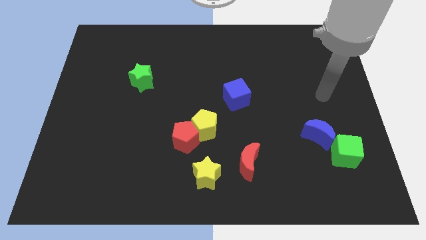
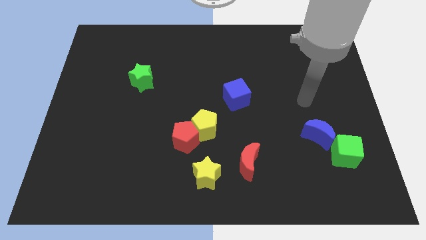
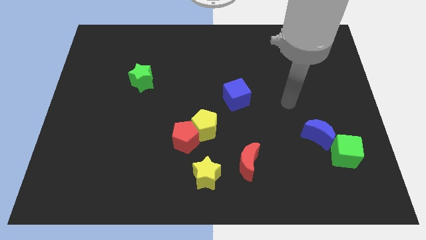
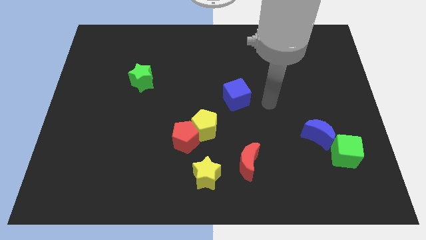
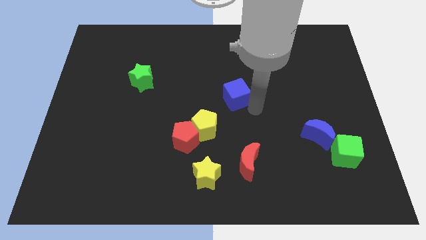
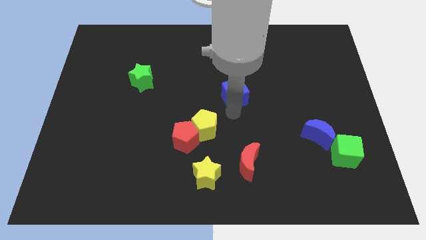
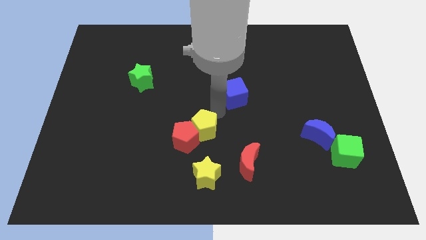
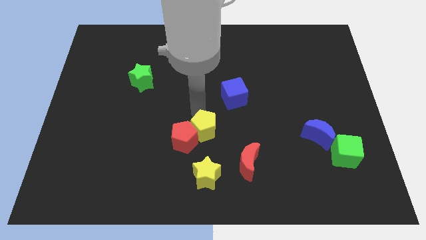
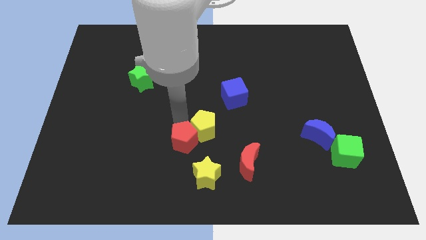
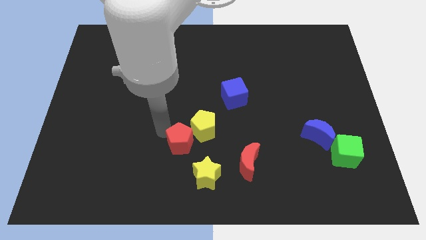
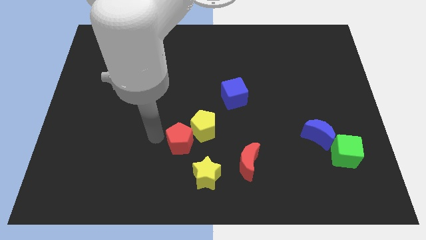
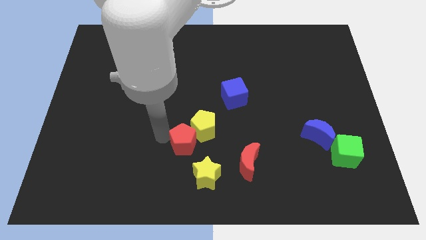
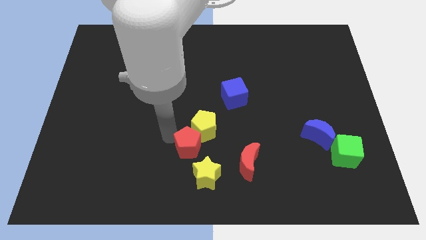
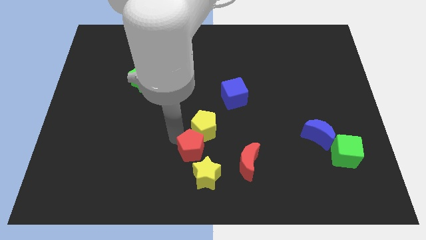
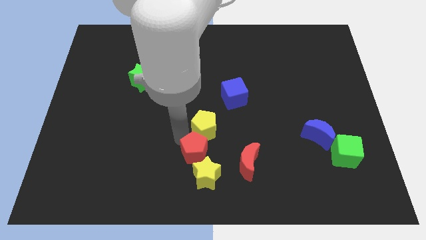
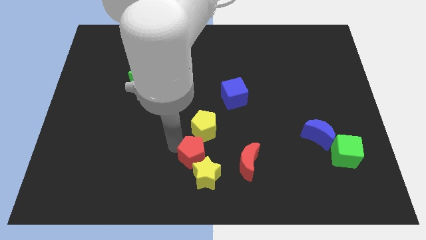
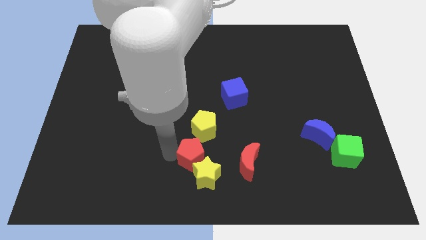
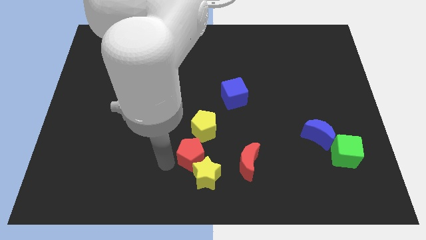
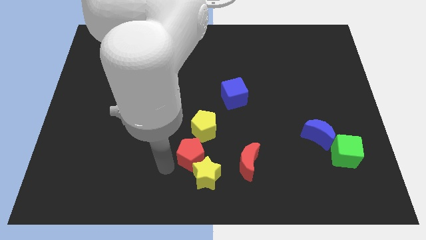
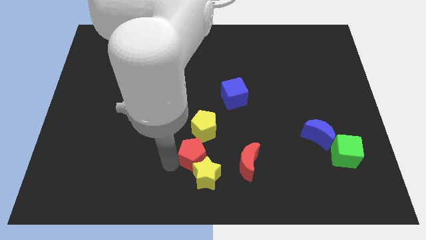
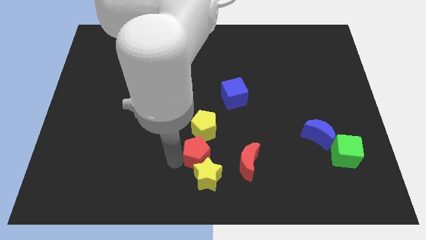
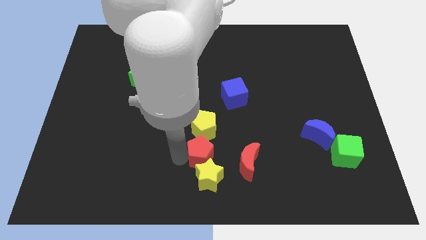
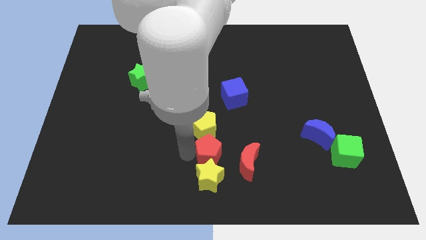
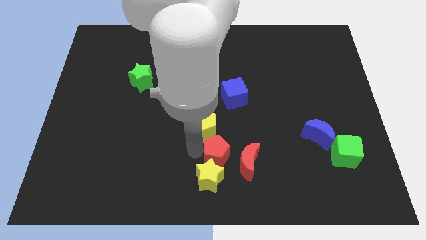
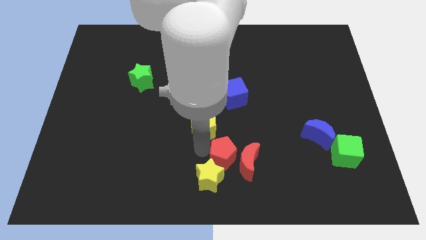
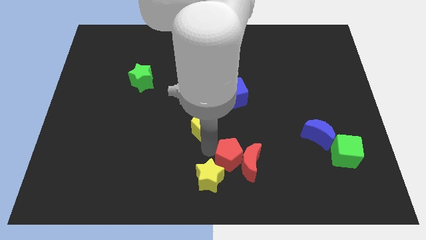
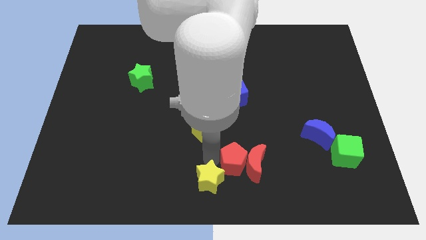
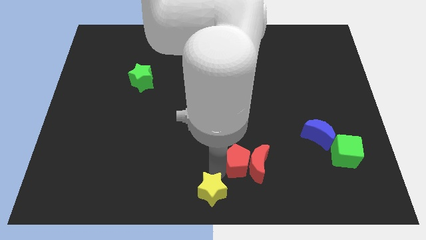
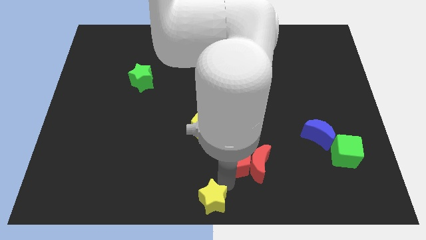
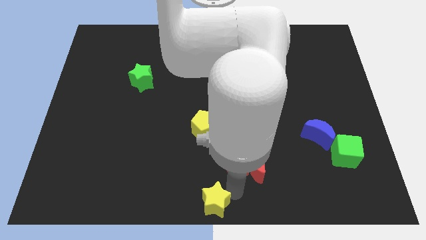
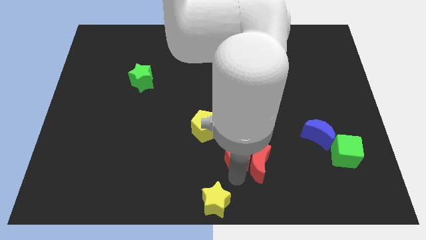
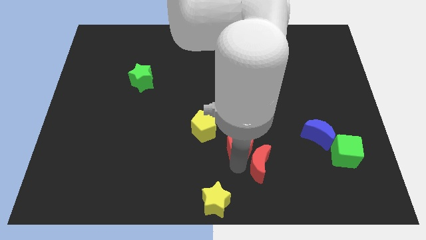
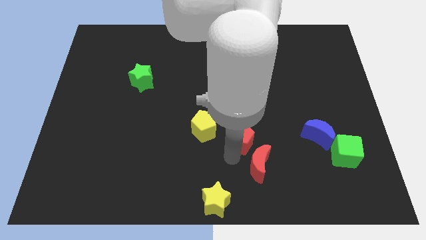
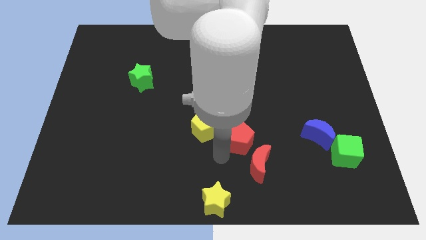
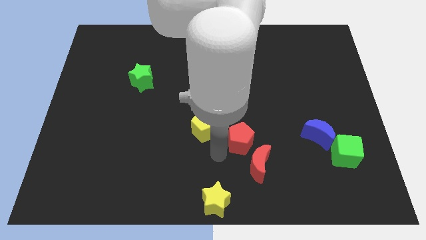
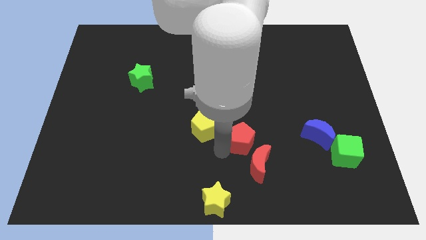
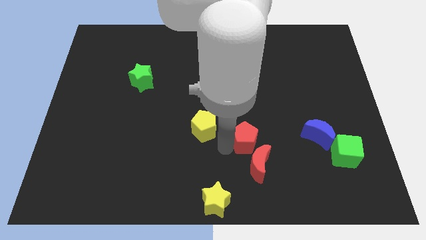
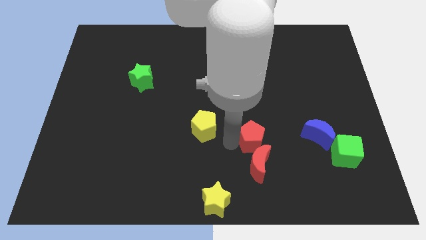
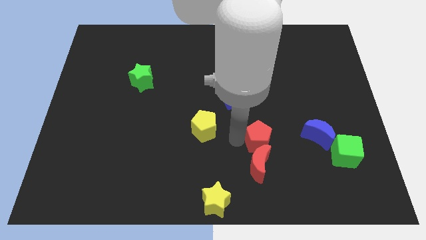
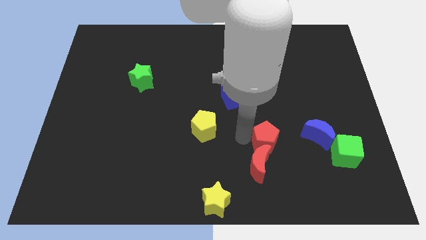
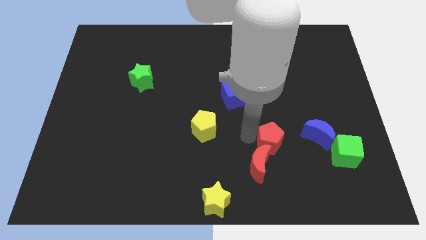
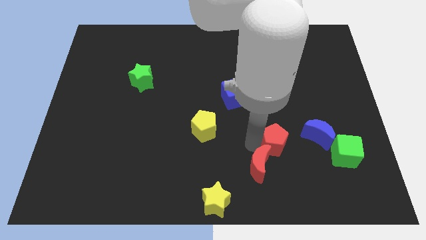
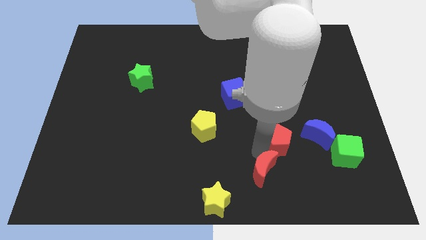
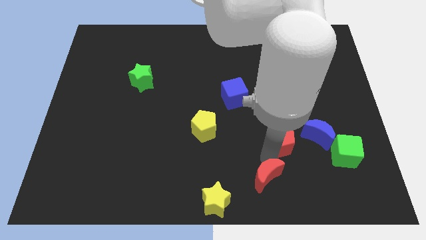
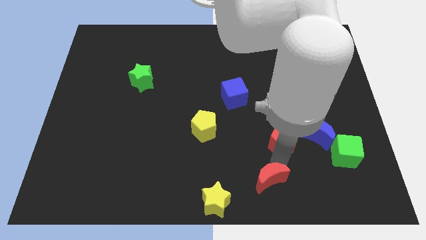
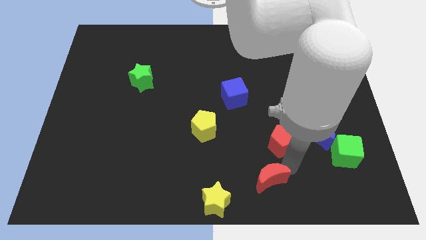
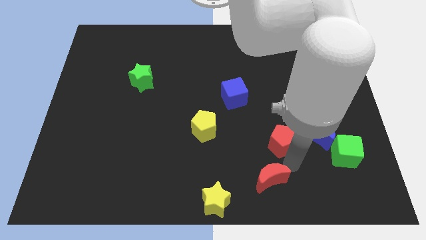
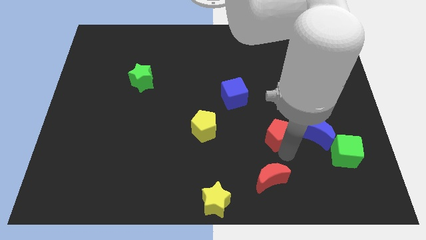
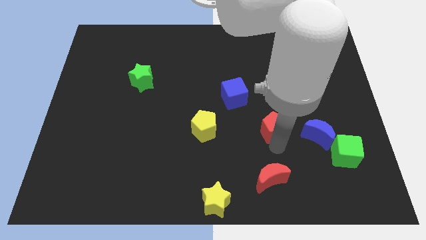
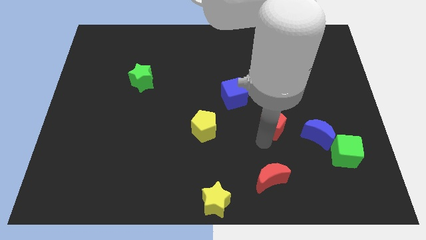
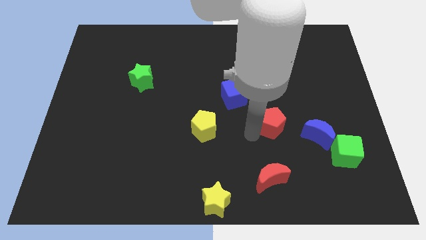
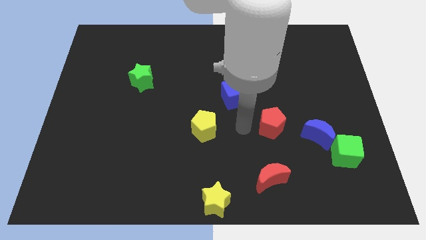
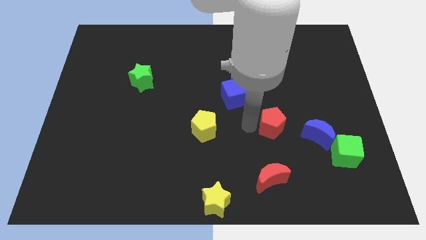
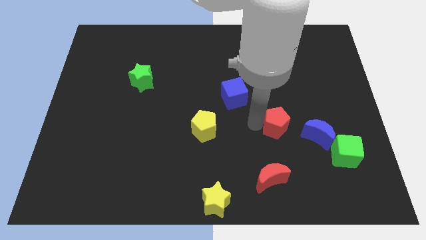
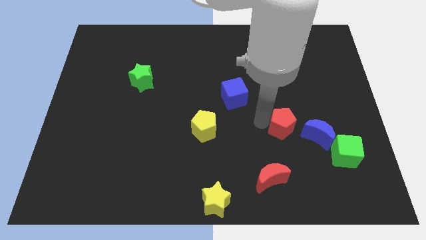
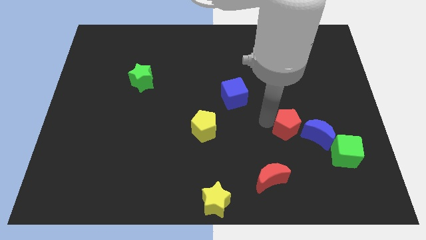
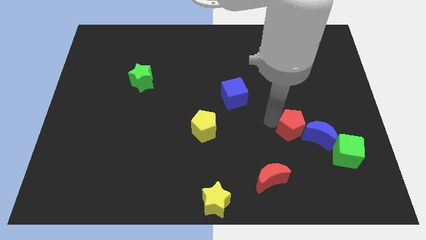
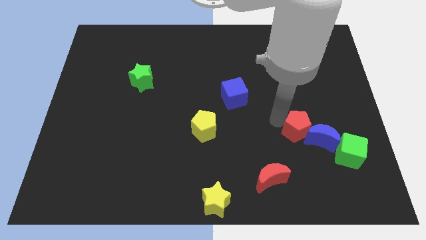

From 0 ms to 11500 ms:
move the red pentagon diagonally up and to the left of the green cube

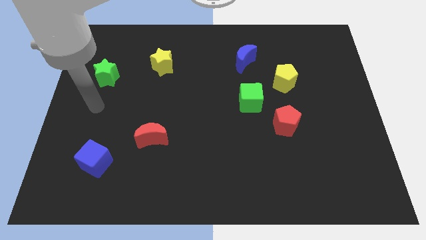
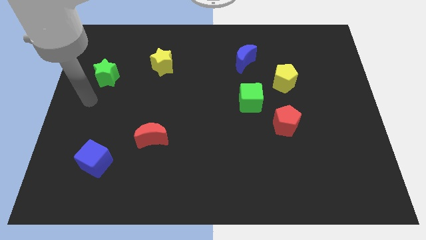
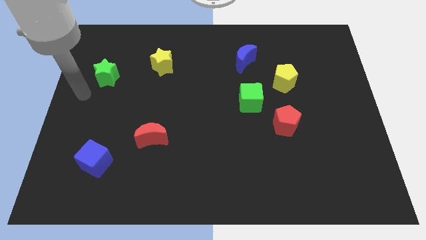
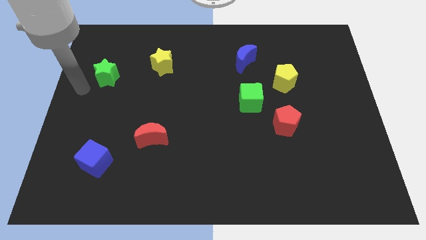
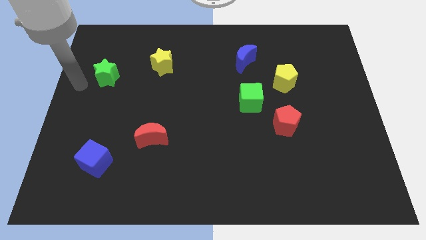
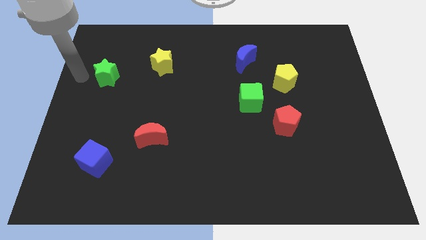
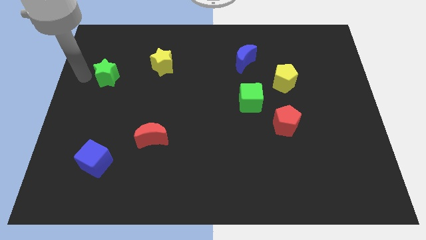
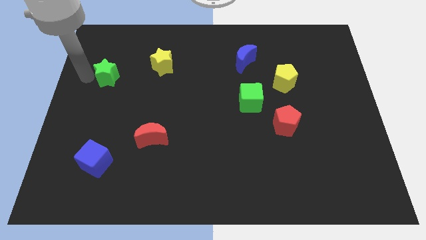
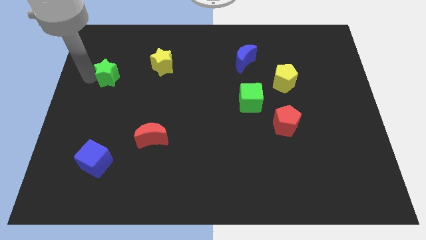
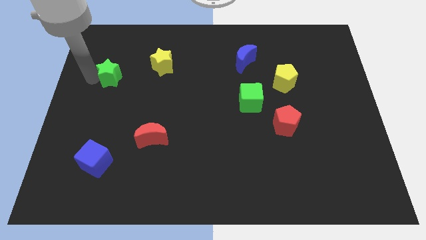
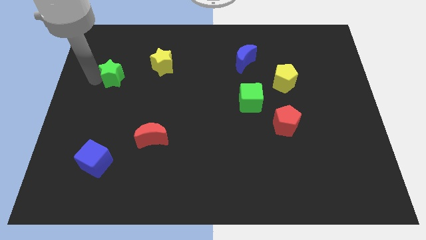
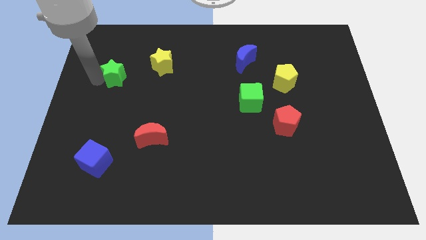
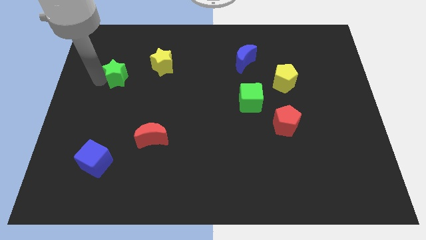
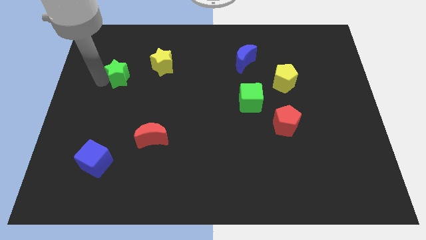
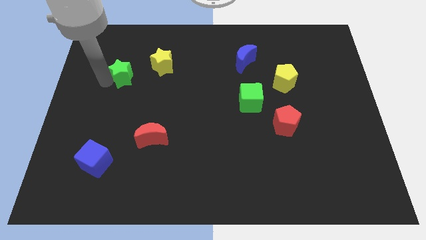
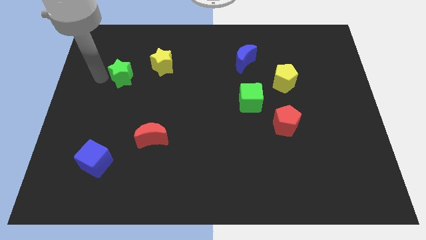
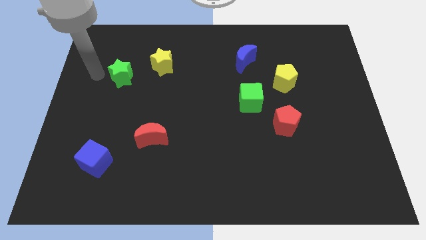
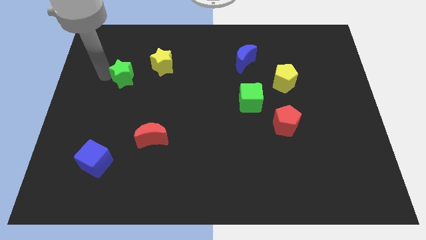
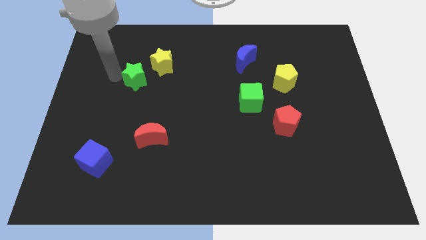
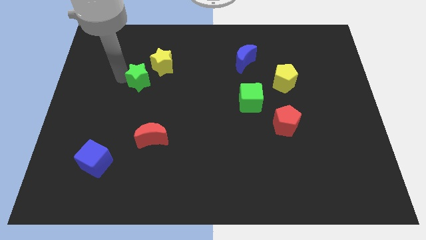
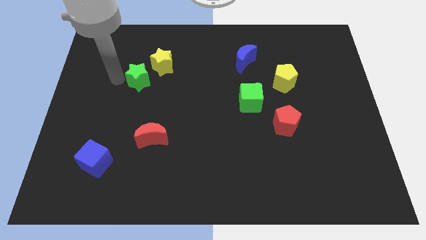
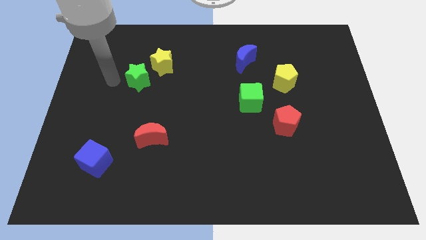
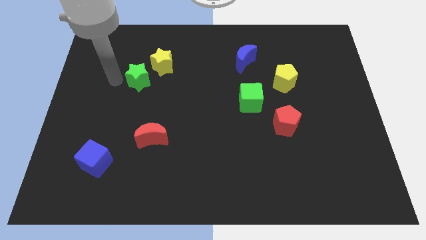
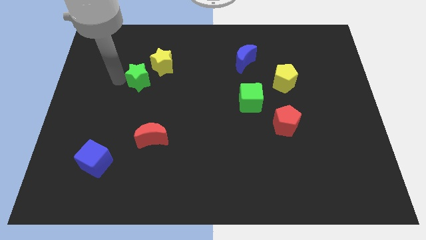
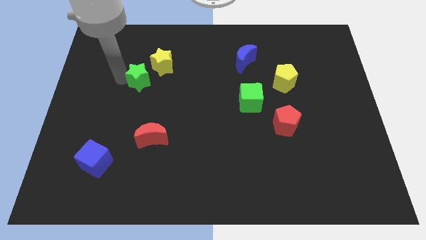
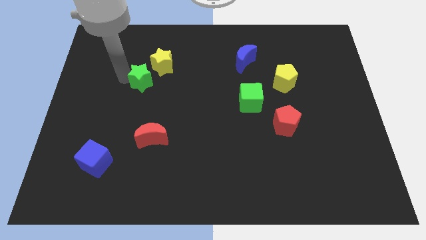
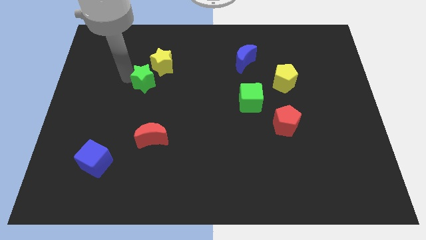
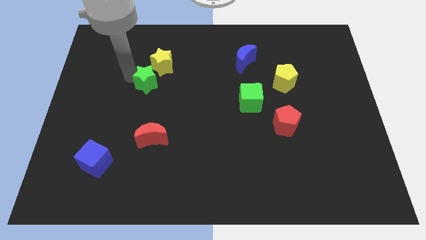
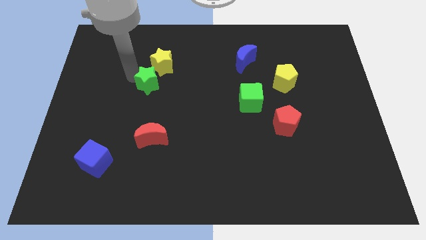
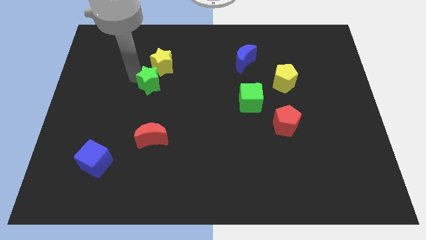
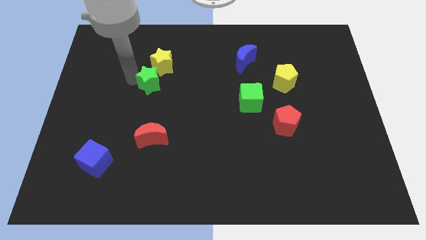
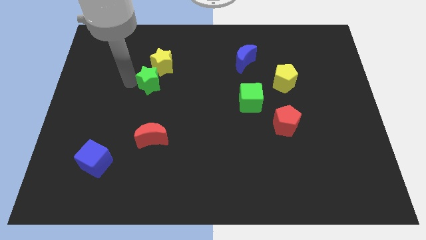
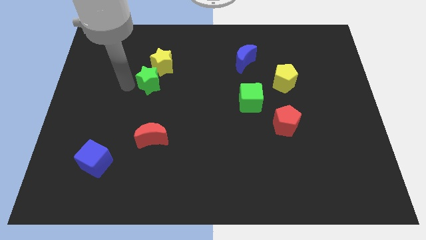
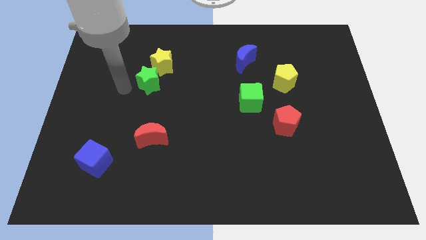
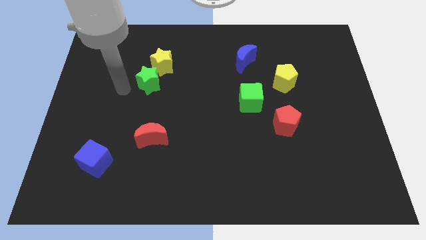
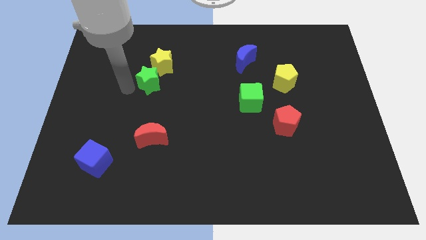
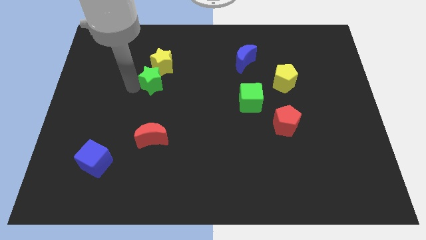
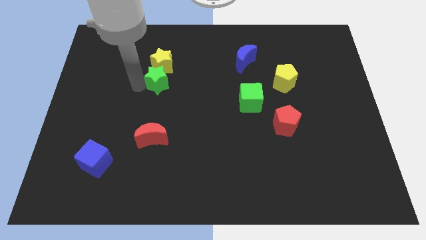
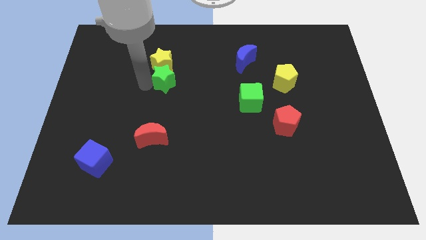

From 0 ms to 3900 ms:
move the green star to the bottom right side of the yellow star
